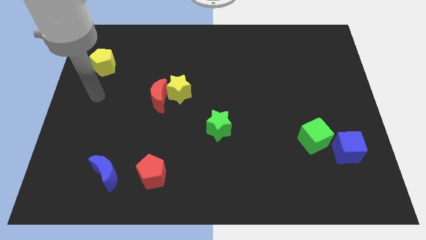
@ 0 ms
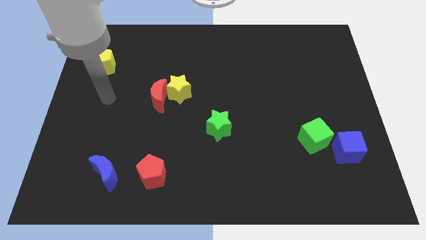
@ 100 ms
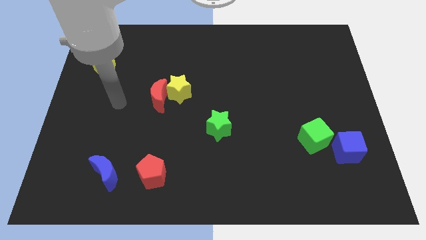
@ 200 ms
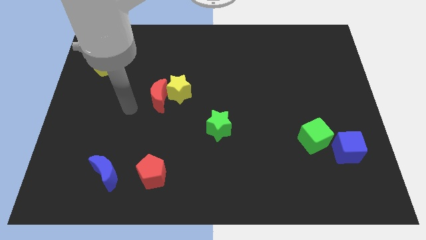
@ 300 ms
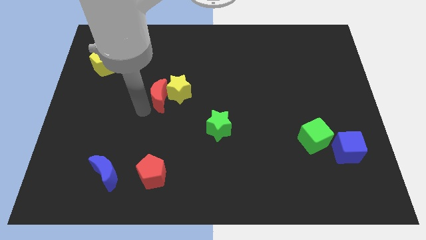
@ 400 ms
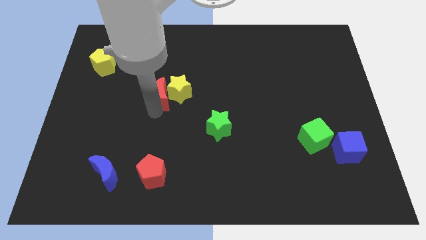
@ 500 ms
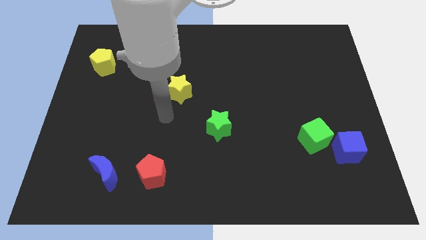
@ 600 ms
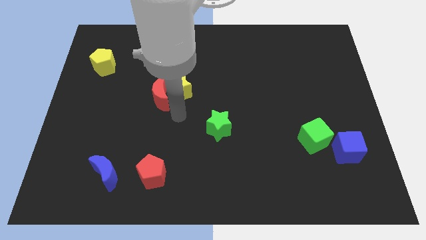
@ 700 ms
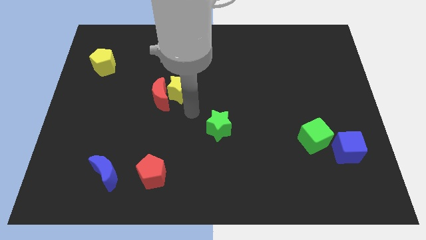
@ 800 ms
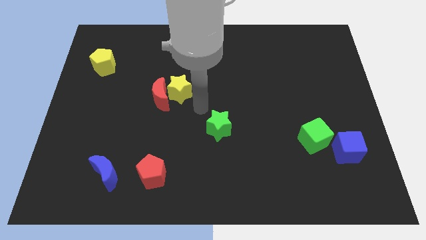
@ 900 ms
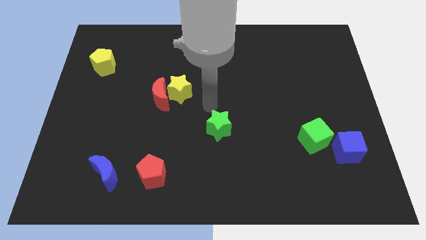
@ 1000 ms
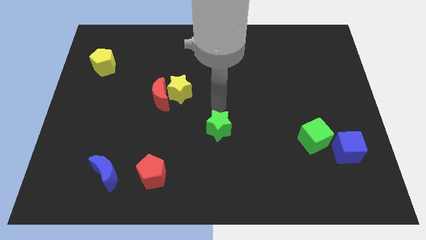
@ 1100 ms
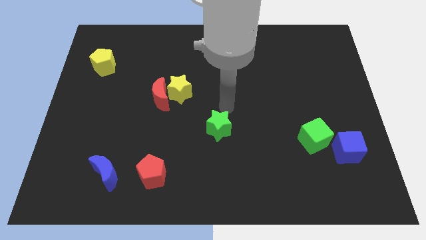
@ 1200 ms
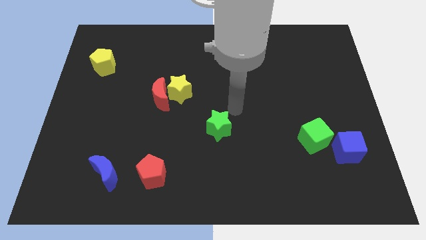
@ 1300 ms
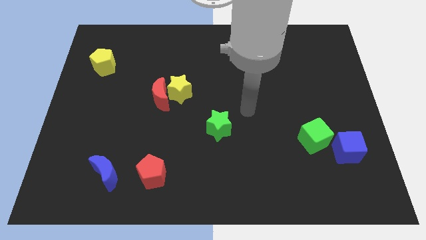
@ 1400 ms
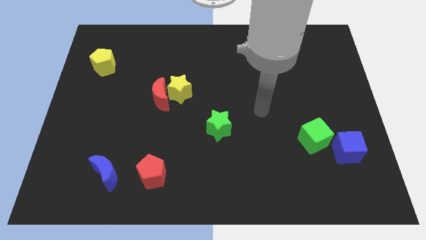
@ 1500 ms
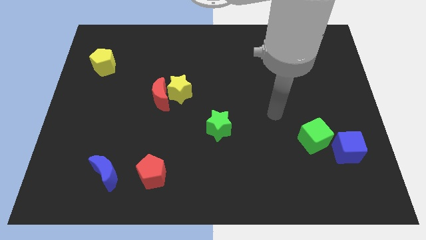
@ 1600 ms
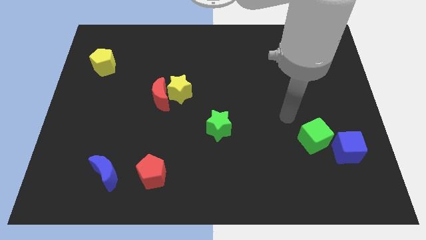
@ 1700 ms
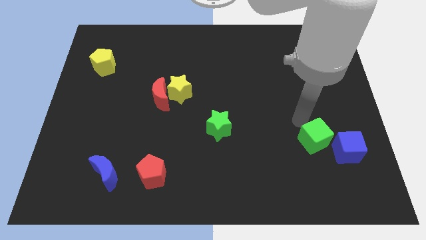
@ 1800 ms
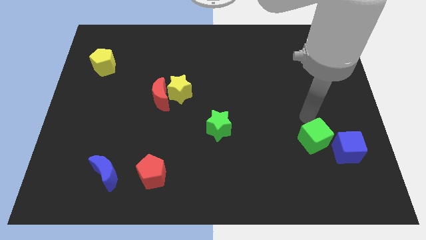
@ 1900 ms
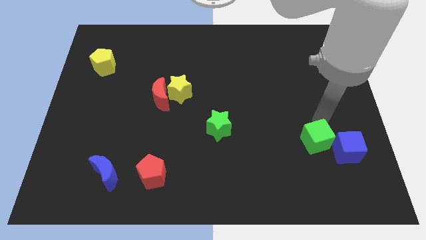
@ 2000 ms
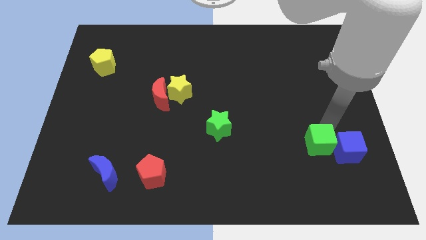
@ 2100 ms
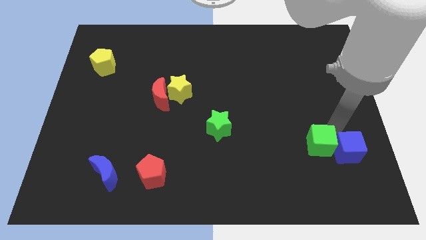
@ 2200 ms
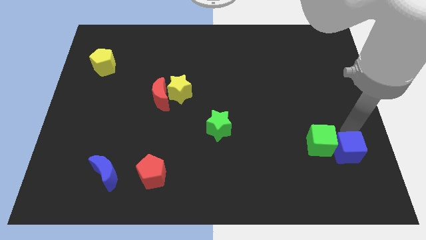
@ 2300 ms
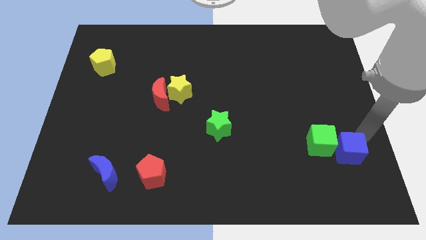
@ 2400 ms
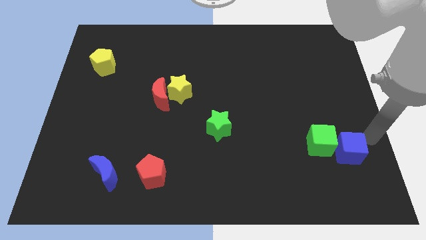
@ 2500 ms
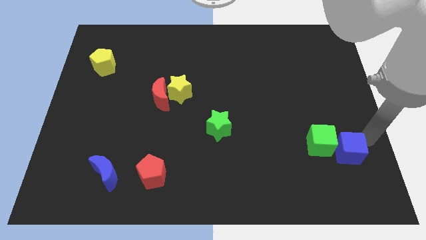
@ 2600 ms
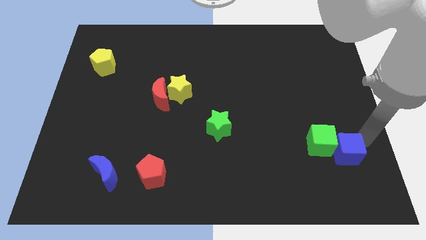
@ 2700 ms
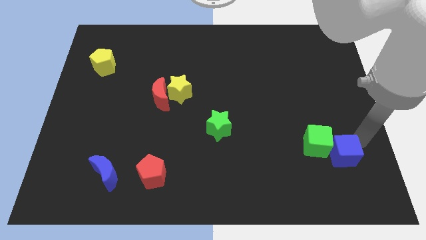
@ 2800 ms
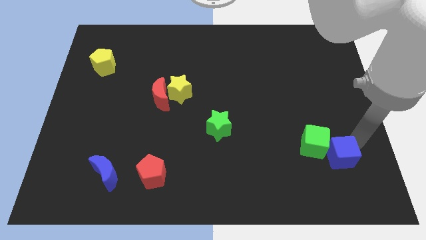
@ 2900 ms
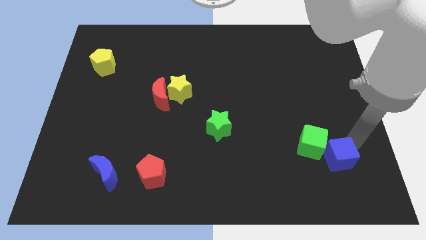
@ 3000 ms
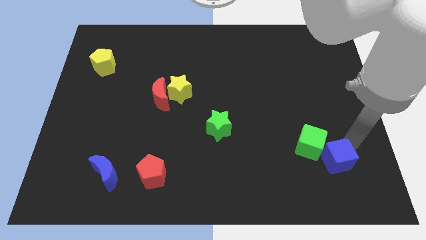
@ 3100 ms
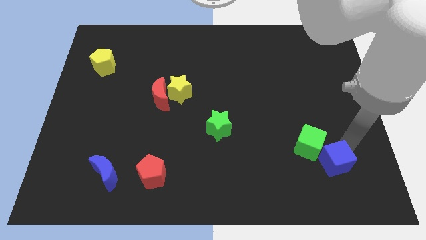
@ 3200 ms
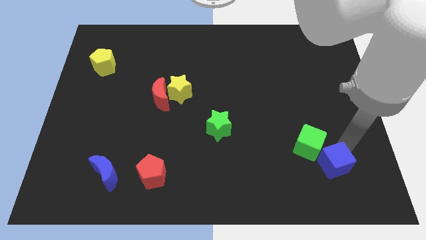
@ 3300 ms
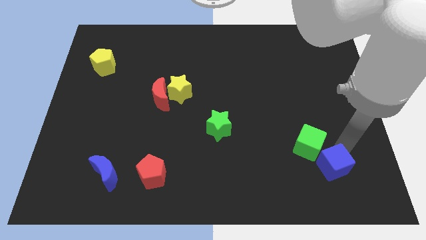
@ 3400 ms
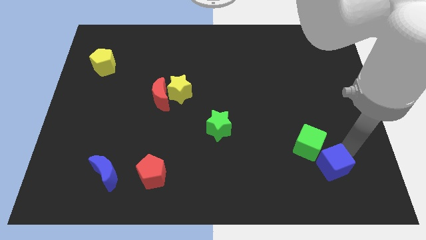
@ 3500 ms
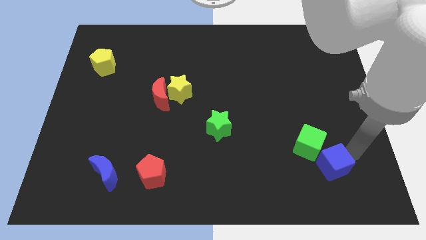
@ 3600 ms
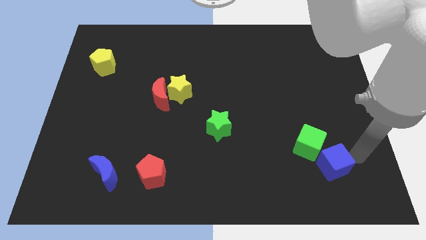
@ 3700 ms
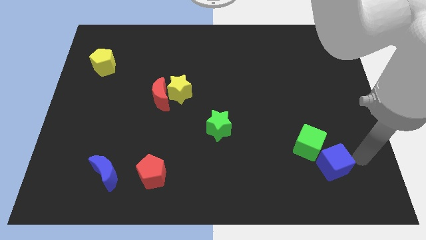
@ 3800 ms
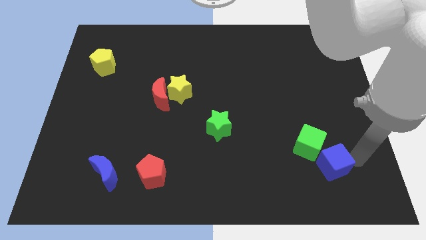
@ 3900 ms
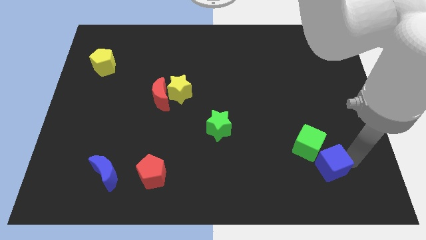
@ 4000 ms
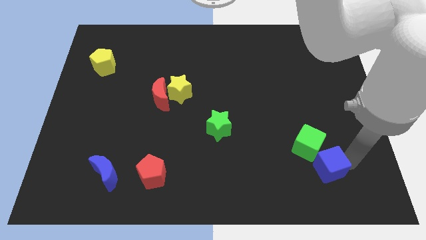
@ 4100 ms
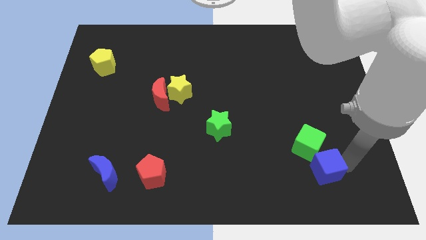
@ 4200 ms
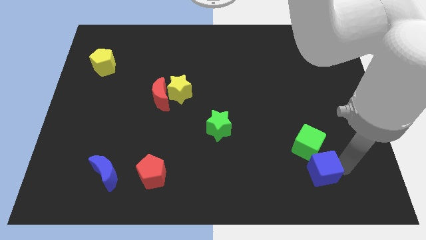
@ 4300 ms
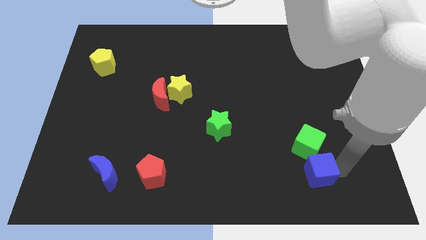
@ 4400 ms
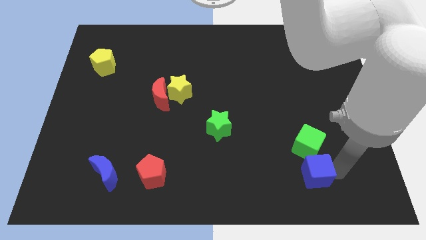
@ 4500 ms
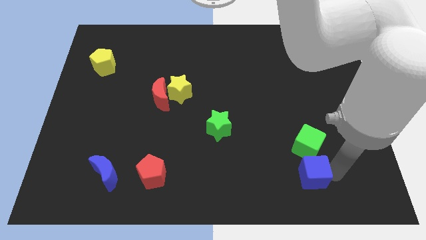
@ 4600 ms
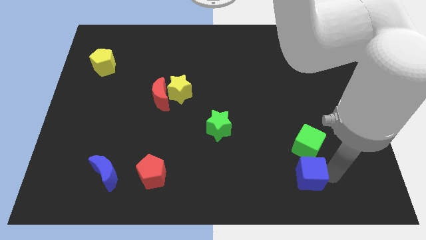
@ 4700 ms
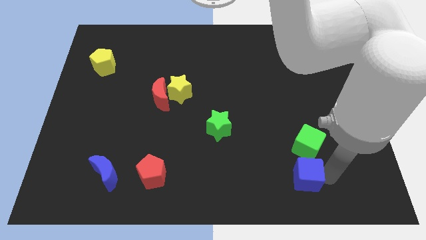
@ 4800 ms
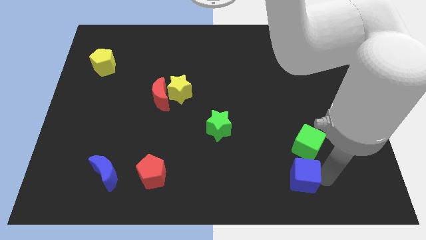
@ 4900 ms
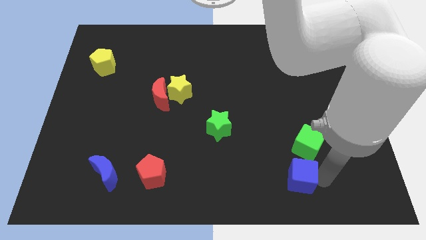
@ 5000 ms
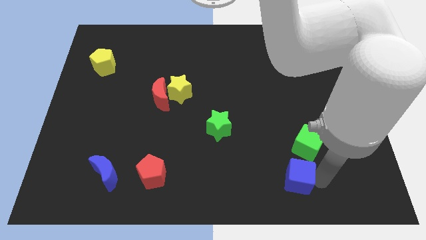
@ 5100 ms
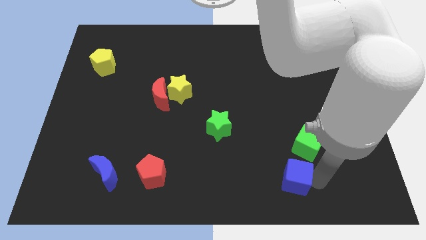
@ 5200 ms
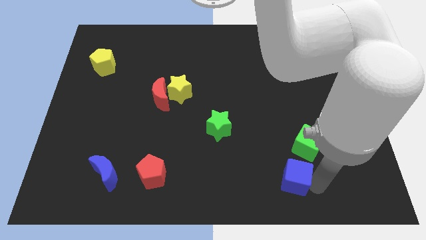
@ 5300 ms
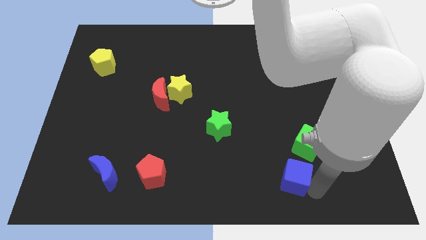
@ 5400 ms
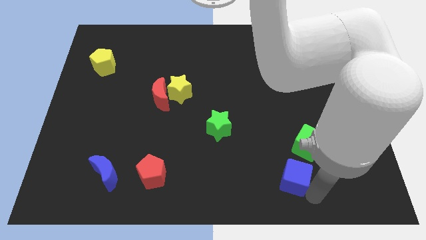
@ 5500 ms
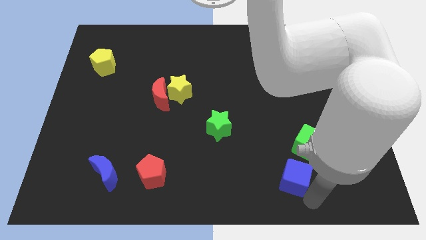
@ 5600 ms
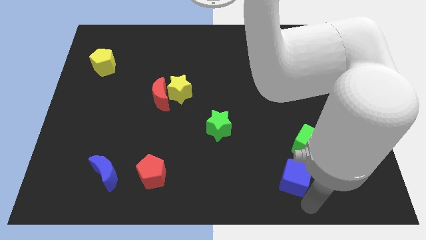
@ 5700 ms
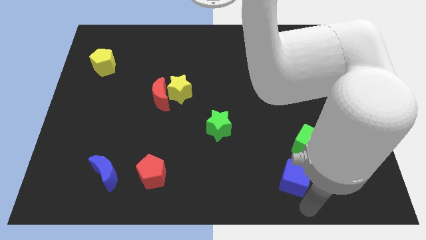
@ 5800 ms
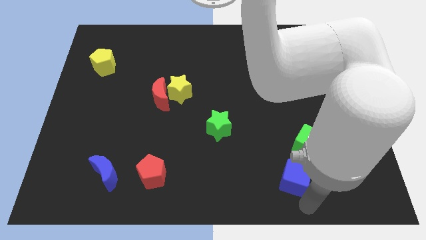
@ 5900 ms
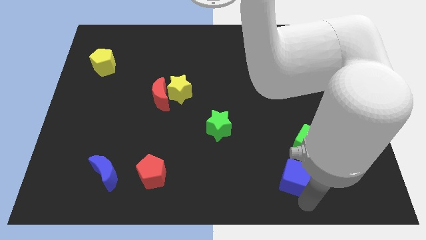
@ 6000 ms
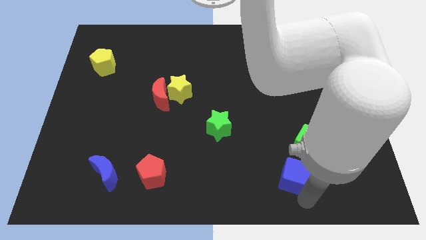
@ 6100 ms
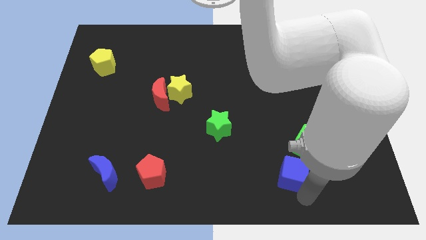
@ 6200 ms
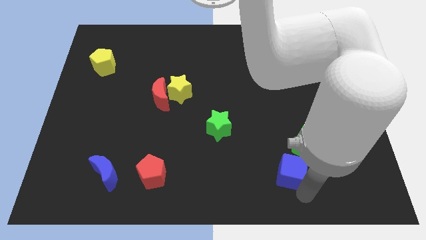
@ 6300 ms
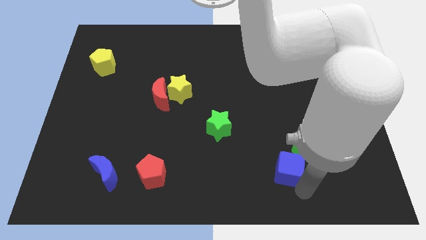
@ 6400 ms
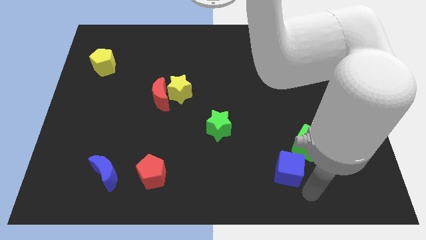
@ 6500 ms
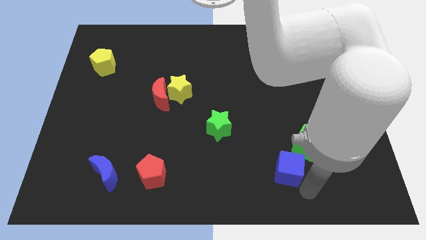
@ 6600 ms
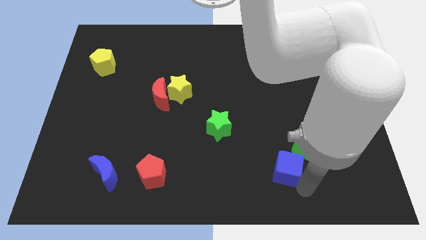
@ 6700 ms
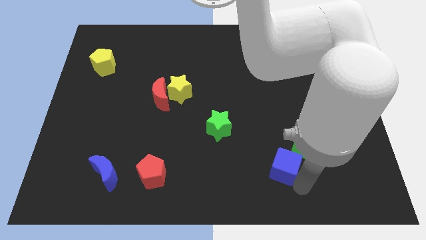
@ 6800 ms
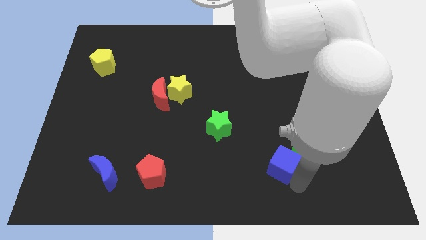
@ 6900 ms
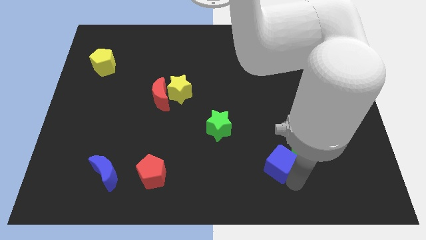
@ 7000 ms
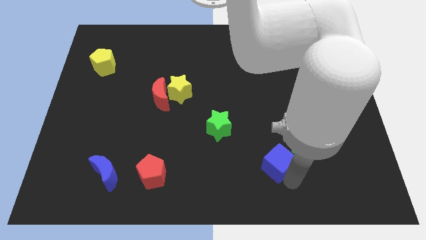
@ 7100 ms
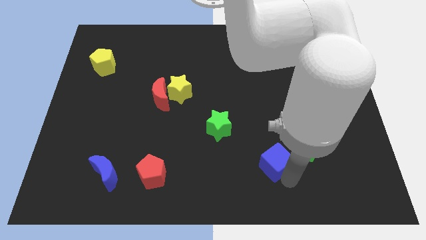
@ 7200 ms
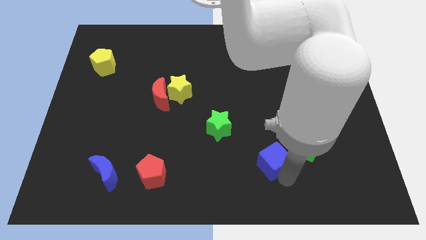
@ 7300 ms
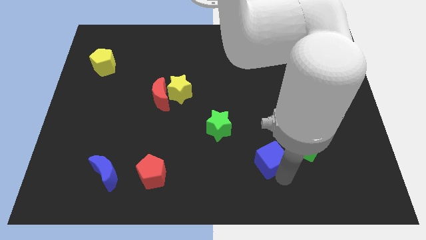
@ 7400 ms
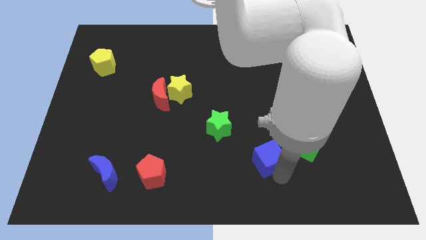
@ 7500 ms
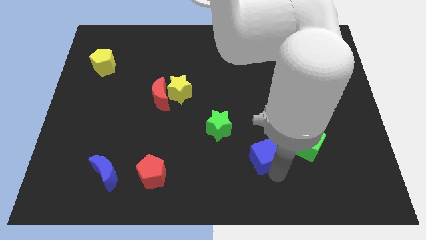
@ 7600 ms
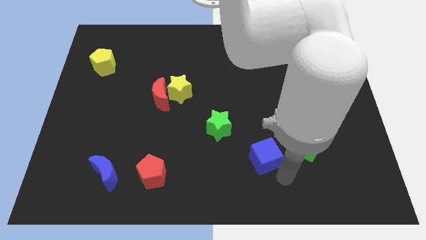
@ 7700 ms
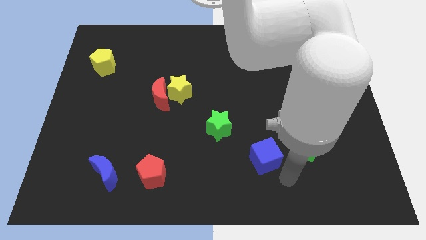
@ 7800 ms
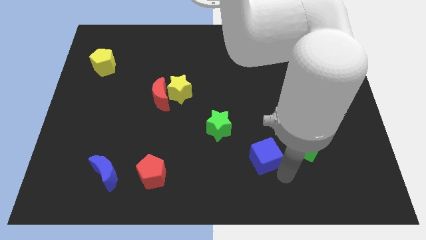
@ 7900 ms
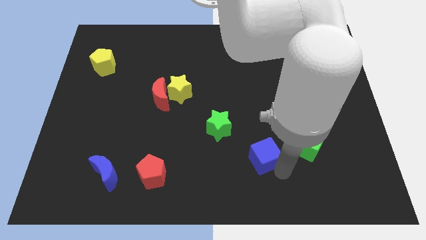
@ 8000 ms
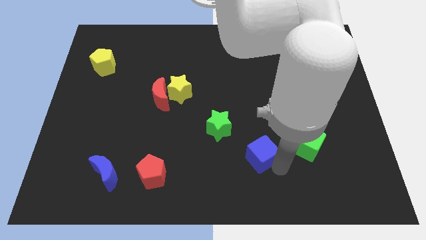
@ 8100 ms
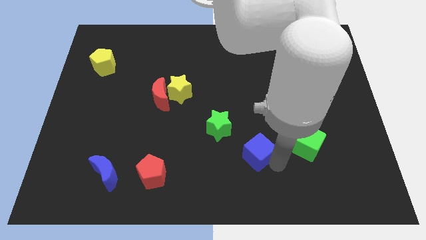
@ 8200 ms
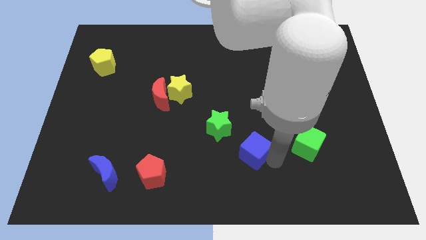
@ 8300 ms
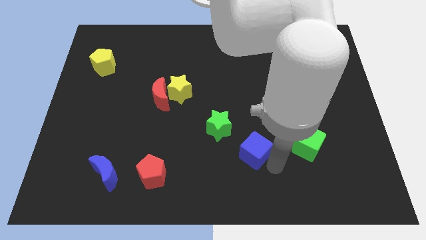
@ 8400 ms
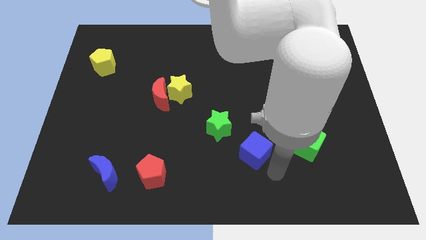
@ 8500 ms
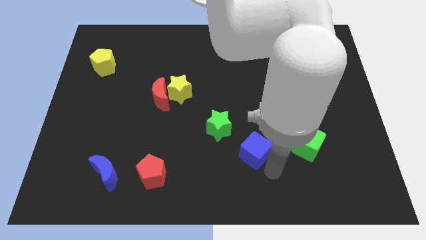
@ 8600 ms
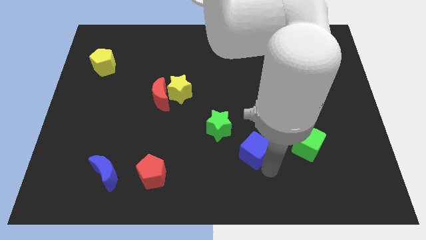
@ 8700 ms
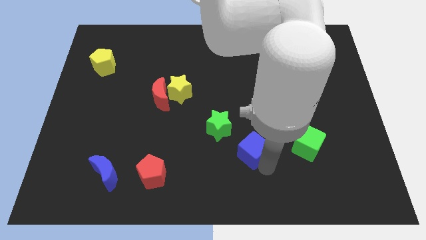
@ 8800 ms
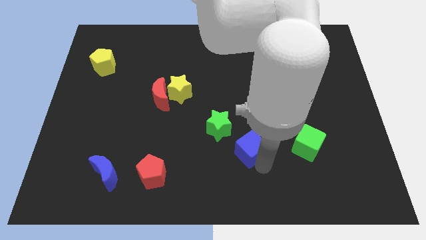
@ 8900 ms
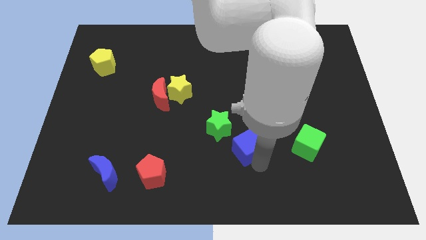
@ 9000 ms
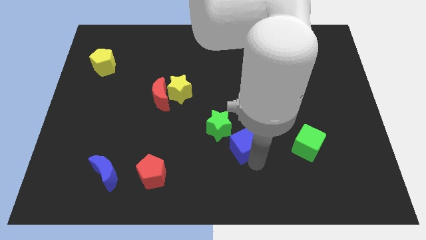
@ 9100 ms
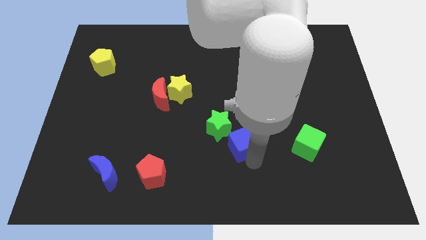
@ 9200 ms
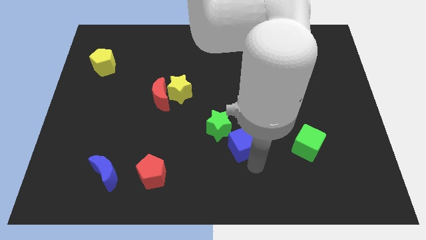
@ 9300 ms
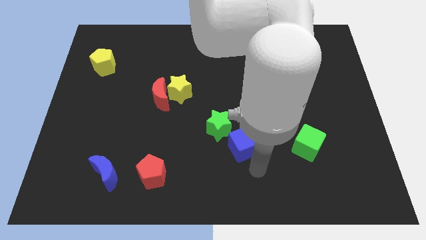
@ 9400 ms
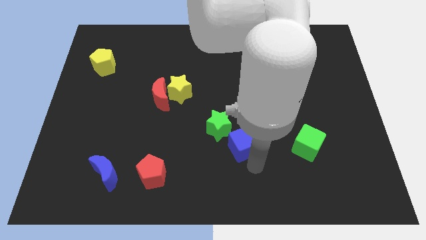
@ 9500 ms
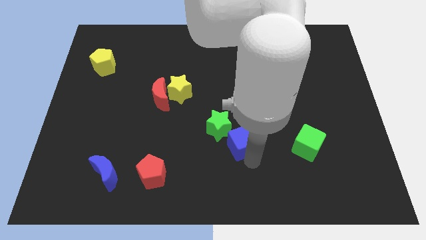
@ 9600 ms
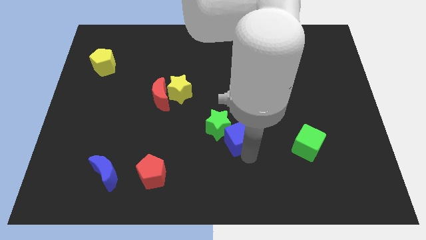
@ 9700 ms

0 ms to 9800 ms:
slide the blue cube towards the green star
